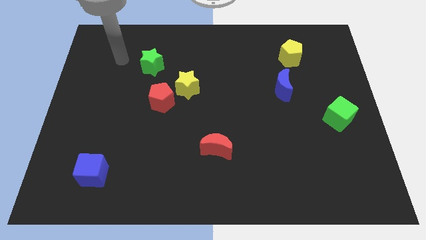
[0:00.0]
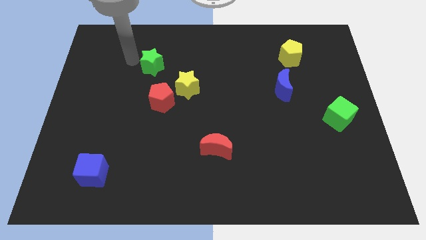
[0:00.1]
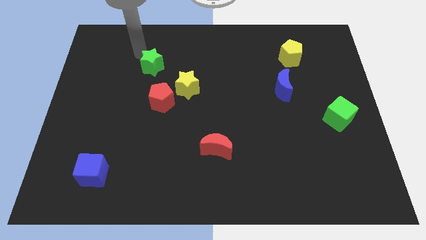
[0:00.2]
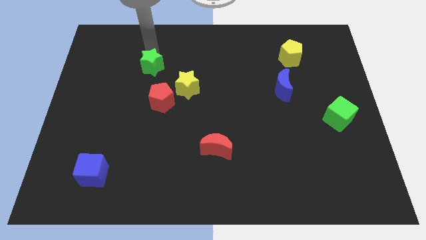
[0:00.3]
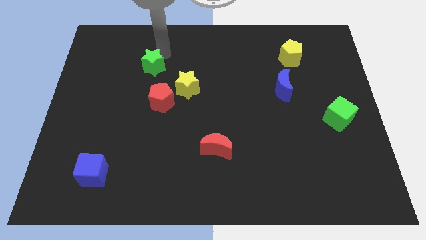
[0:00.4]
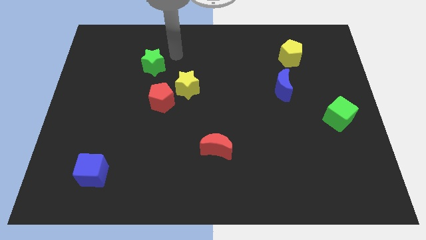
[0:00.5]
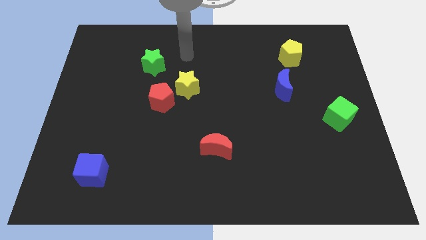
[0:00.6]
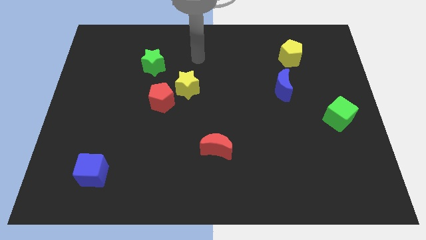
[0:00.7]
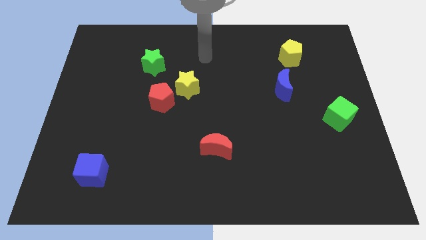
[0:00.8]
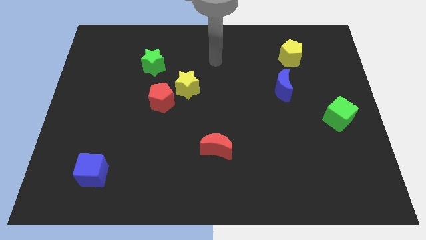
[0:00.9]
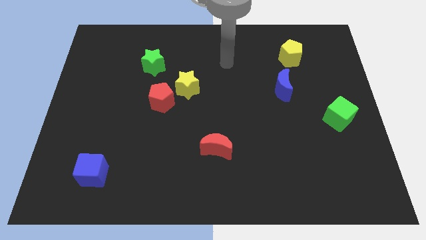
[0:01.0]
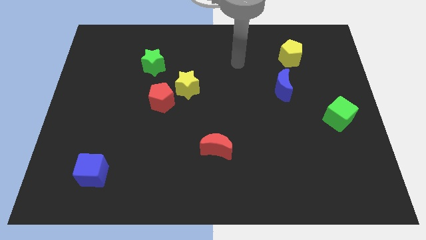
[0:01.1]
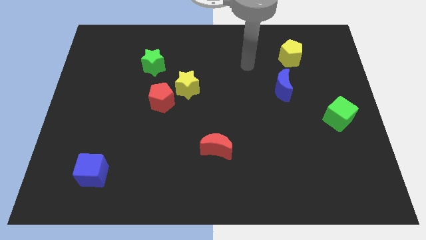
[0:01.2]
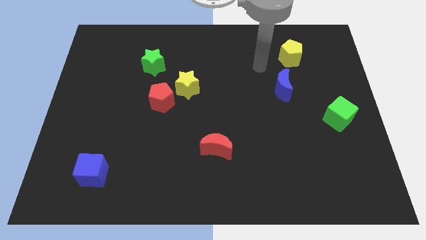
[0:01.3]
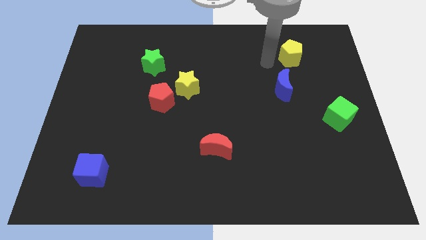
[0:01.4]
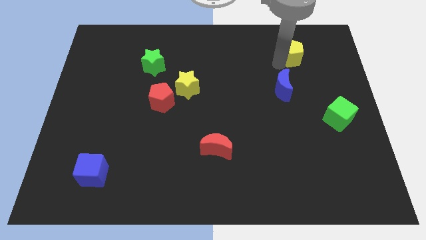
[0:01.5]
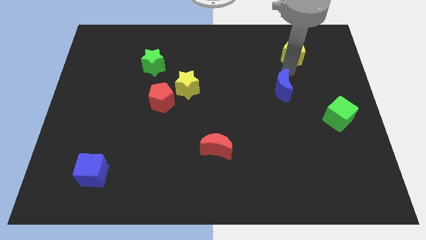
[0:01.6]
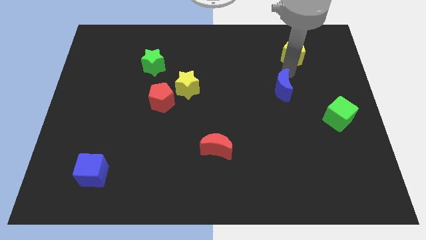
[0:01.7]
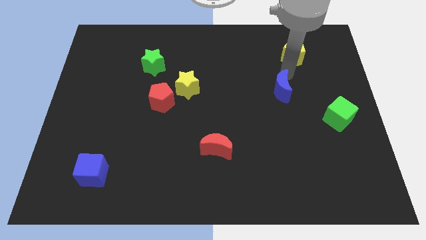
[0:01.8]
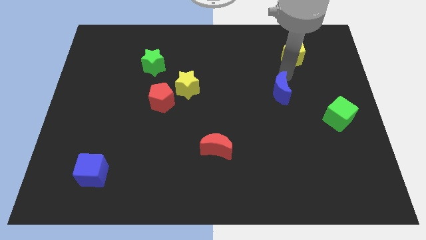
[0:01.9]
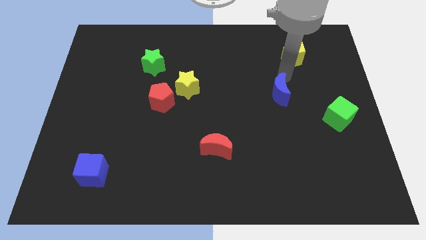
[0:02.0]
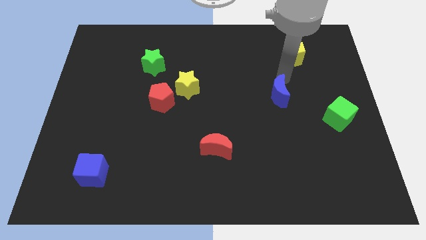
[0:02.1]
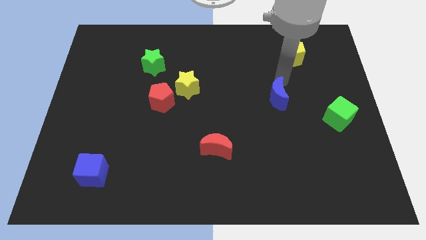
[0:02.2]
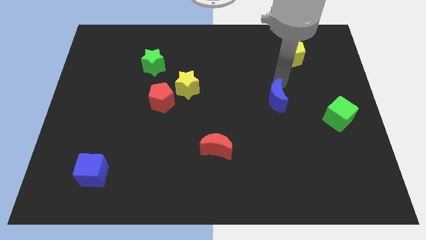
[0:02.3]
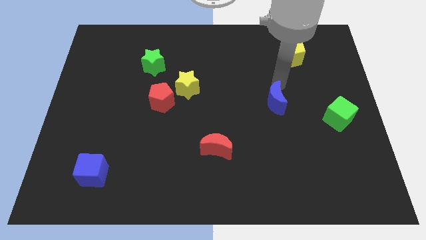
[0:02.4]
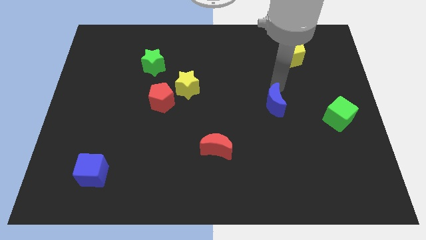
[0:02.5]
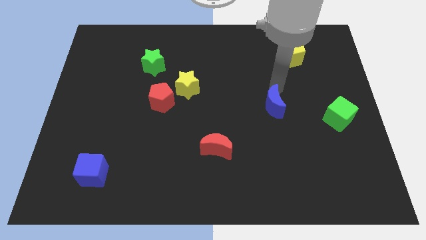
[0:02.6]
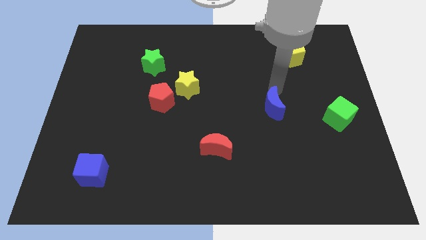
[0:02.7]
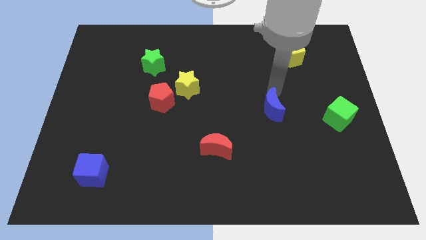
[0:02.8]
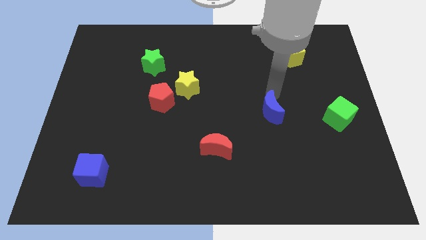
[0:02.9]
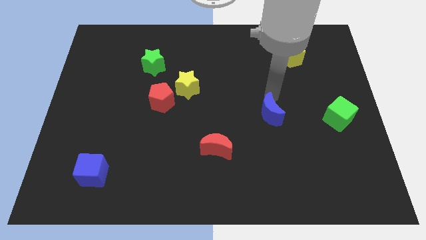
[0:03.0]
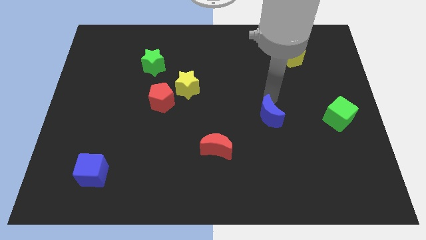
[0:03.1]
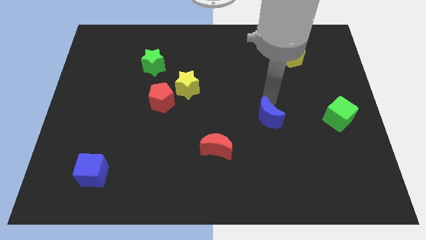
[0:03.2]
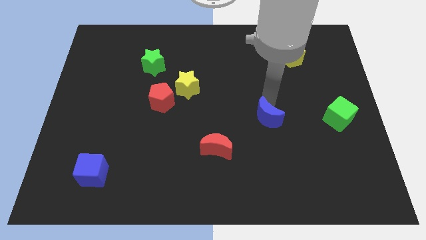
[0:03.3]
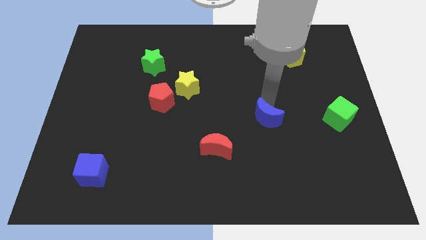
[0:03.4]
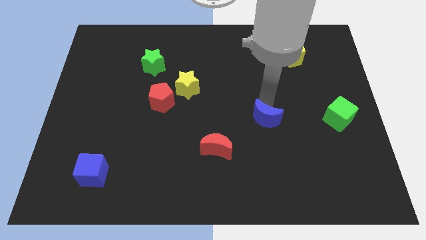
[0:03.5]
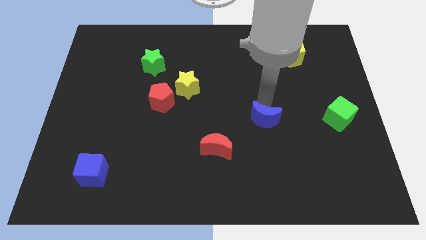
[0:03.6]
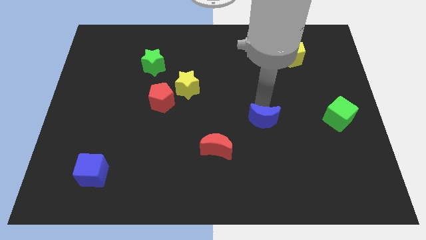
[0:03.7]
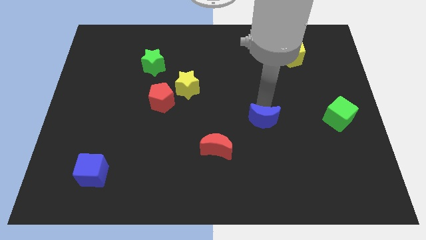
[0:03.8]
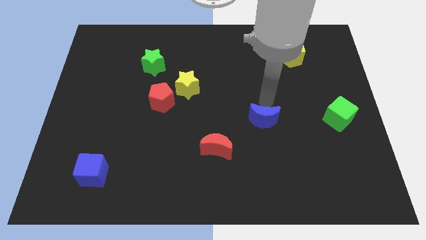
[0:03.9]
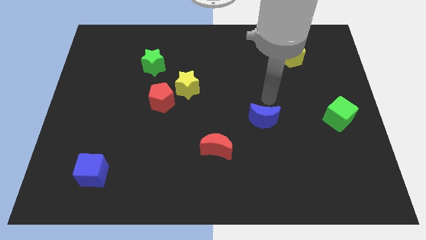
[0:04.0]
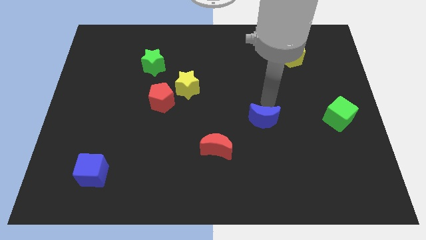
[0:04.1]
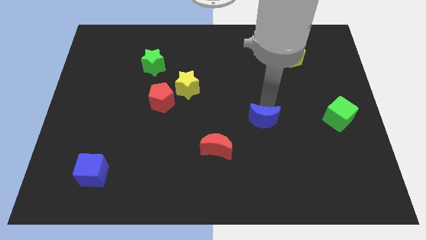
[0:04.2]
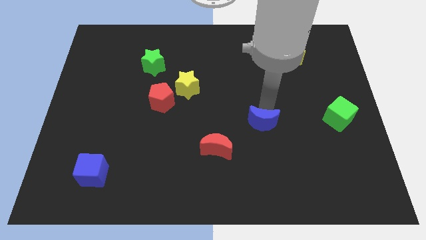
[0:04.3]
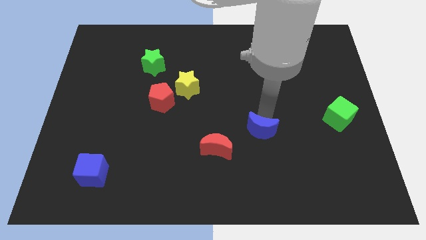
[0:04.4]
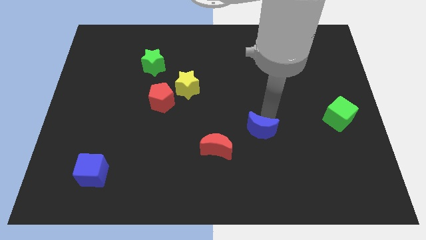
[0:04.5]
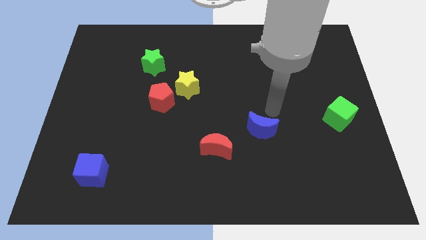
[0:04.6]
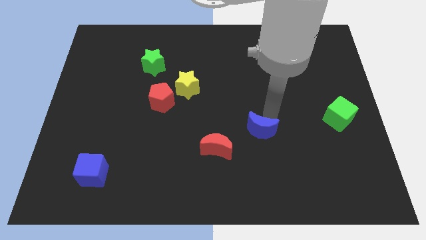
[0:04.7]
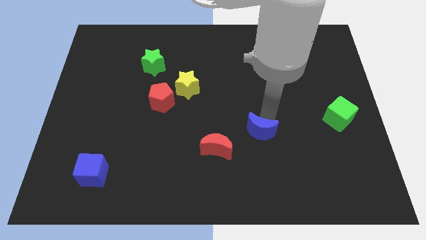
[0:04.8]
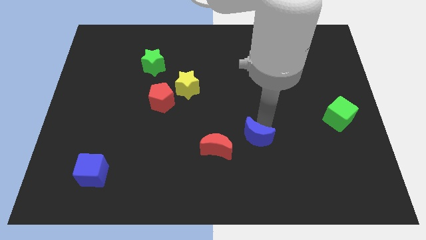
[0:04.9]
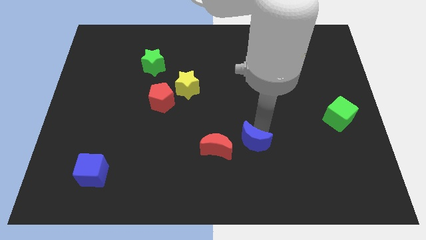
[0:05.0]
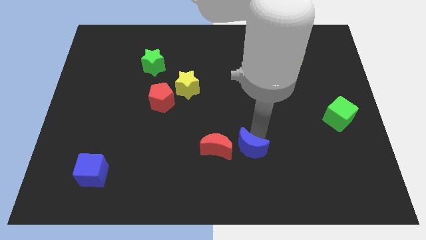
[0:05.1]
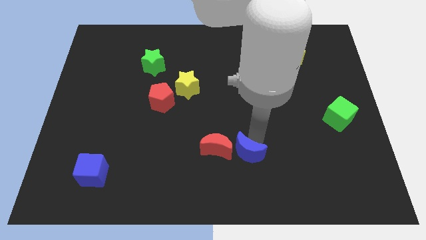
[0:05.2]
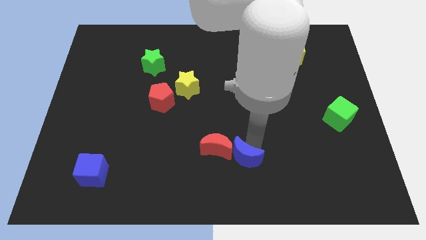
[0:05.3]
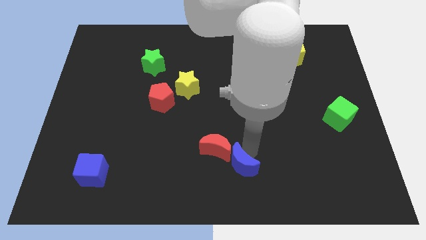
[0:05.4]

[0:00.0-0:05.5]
push the blue moon to the bottom side
